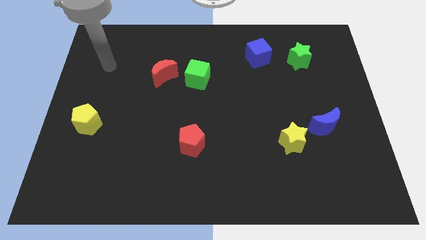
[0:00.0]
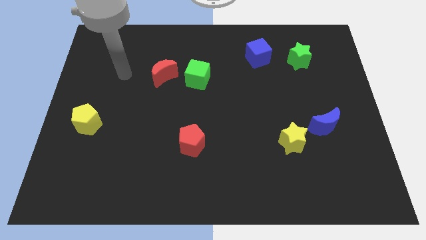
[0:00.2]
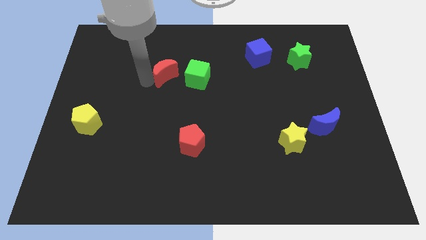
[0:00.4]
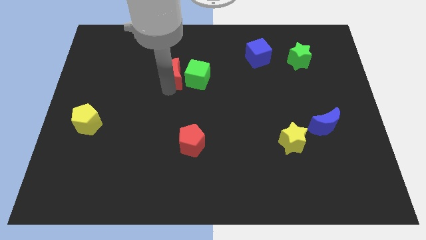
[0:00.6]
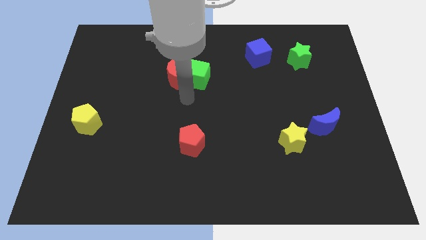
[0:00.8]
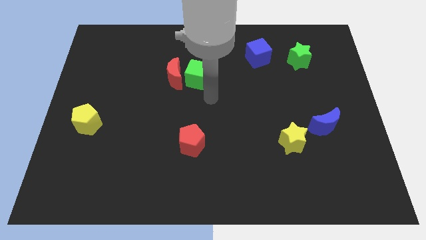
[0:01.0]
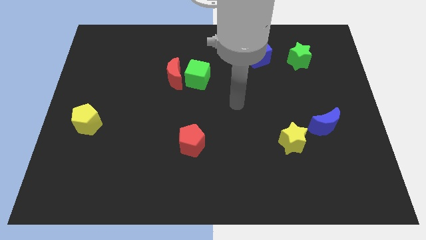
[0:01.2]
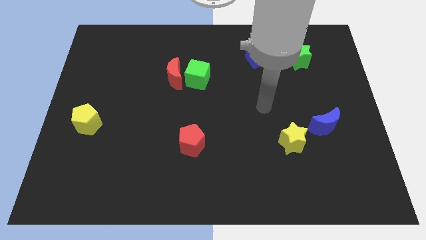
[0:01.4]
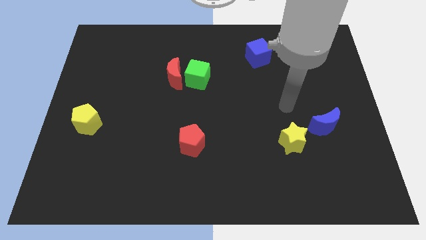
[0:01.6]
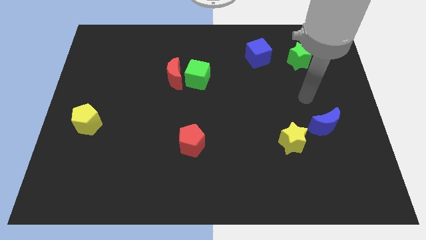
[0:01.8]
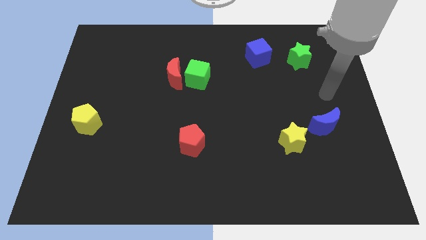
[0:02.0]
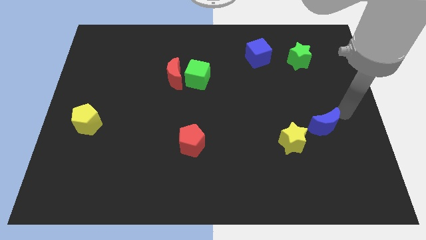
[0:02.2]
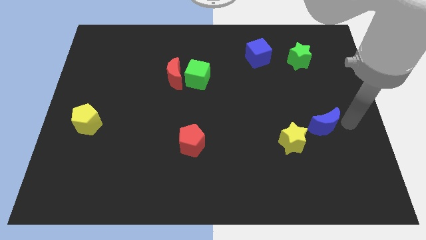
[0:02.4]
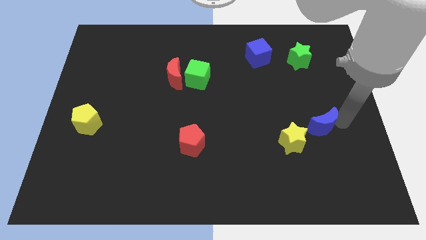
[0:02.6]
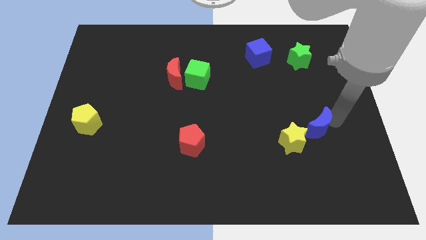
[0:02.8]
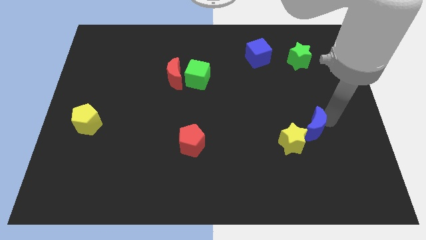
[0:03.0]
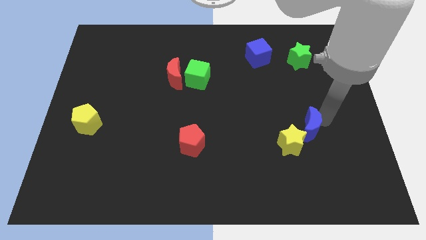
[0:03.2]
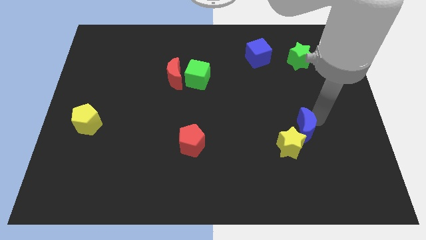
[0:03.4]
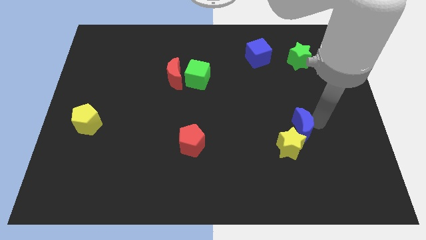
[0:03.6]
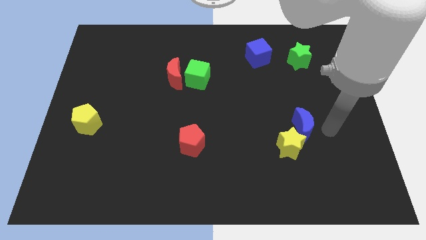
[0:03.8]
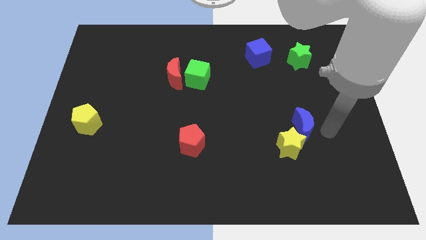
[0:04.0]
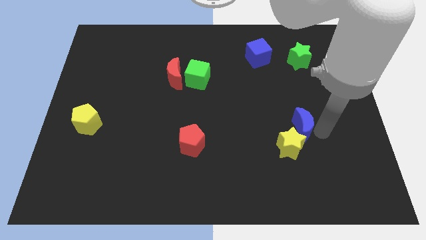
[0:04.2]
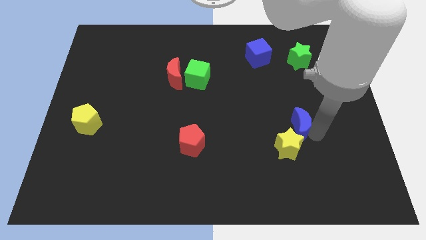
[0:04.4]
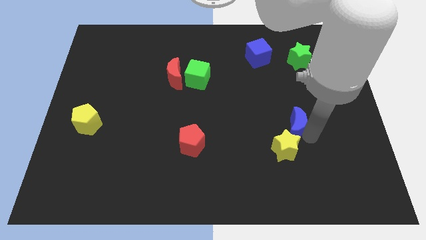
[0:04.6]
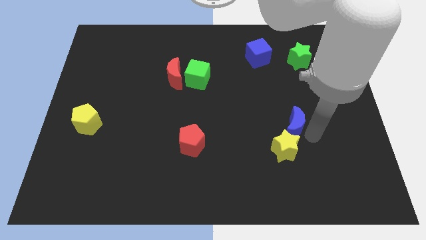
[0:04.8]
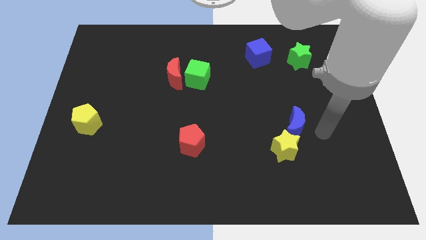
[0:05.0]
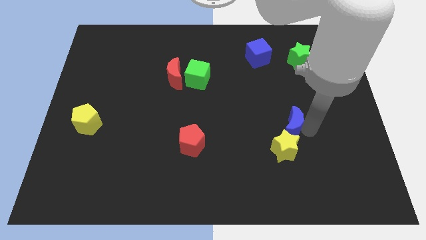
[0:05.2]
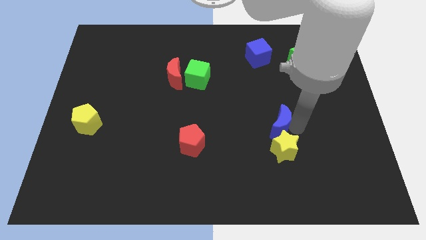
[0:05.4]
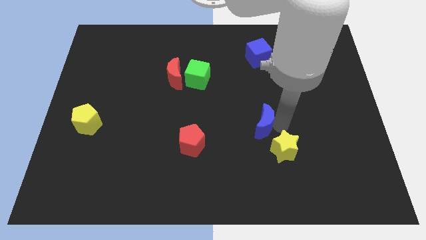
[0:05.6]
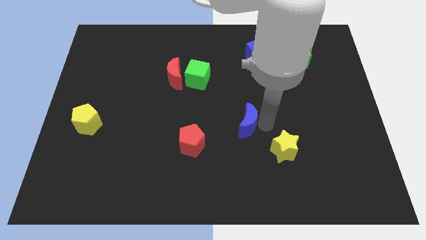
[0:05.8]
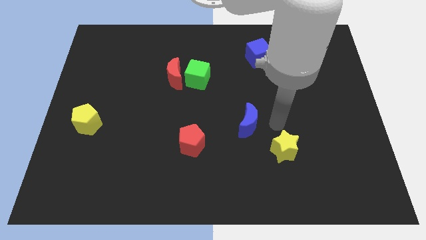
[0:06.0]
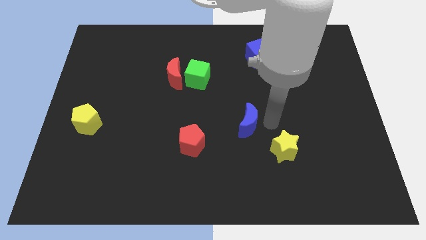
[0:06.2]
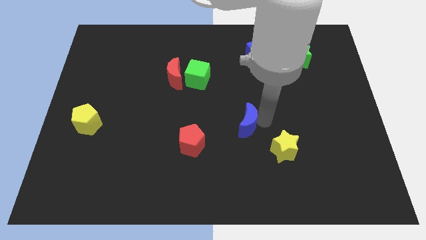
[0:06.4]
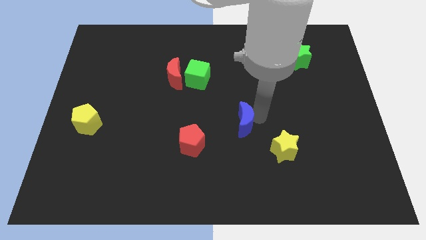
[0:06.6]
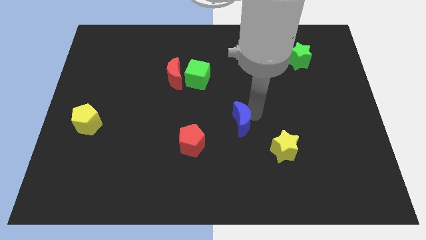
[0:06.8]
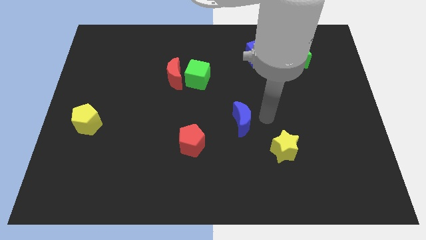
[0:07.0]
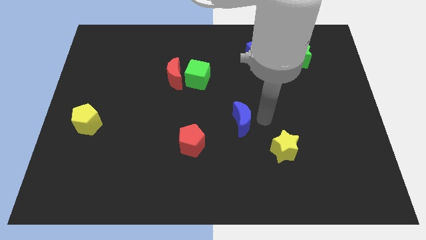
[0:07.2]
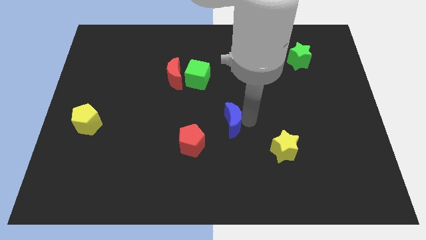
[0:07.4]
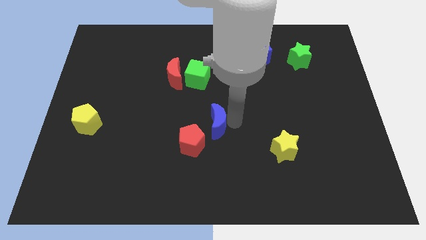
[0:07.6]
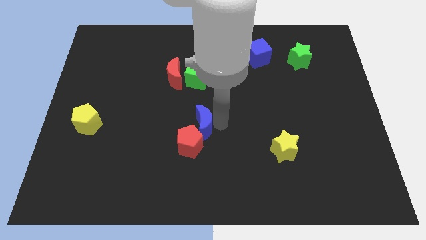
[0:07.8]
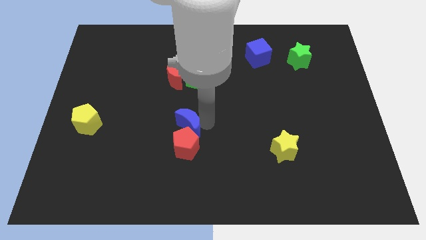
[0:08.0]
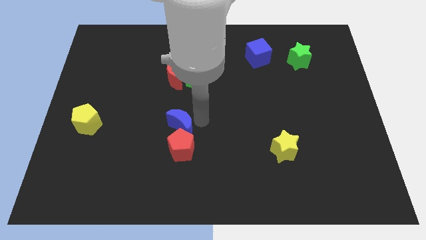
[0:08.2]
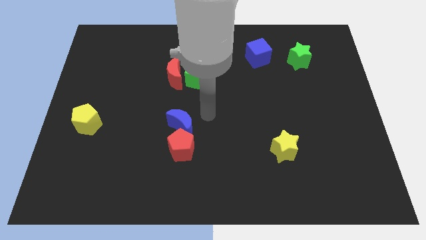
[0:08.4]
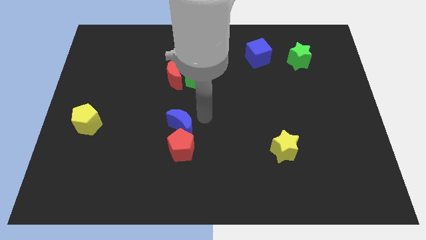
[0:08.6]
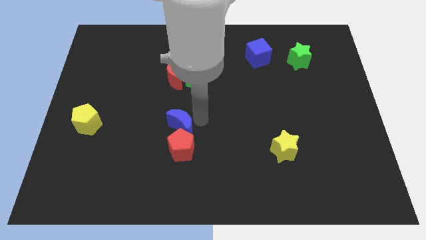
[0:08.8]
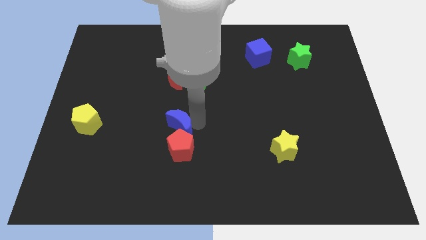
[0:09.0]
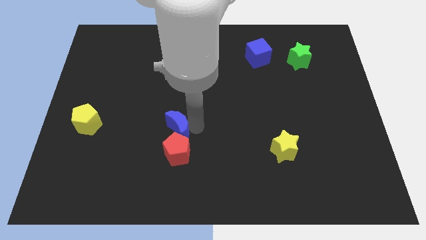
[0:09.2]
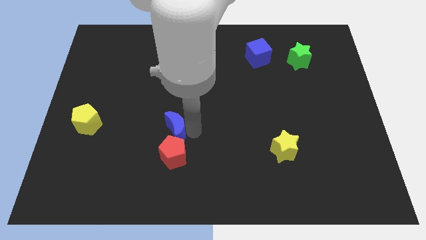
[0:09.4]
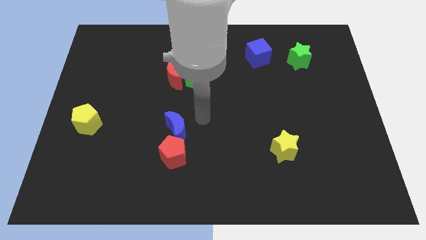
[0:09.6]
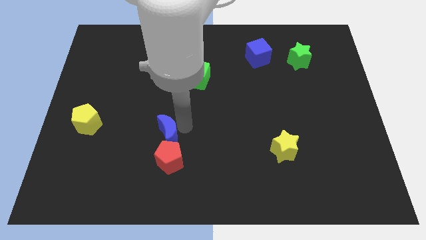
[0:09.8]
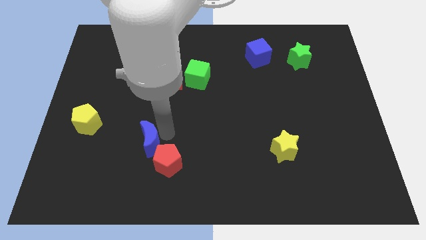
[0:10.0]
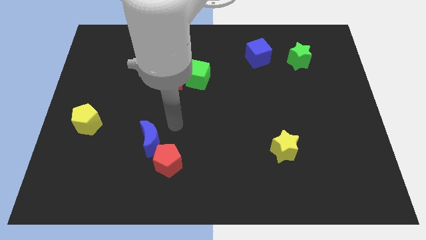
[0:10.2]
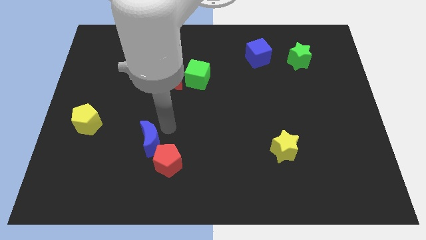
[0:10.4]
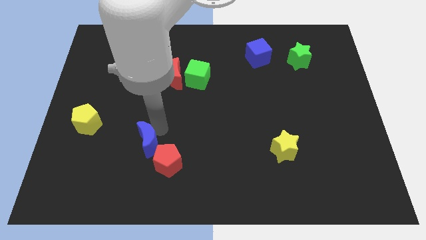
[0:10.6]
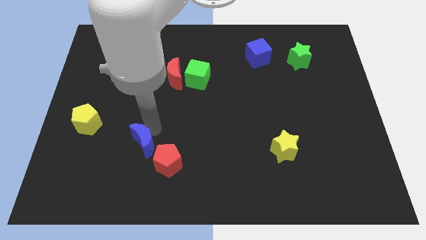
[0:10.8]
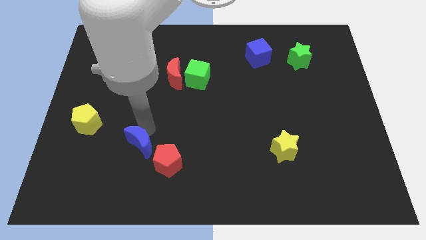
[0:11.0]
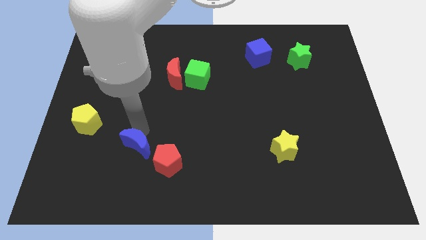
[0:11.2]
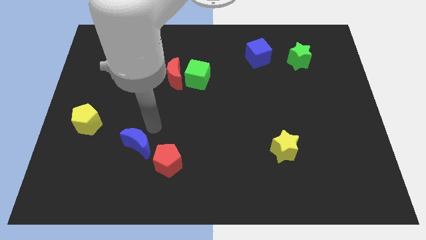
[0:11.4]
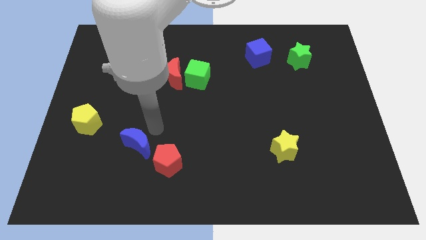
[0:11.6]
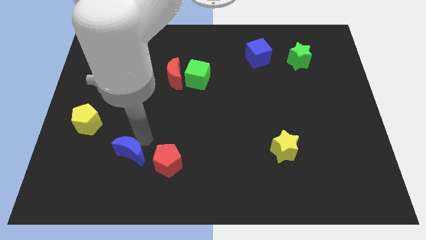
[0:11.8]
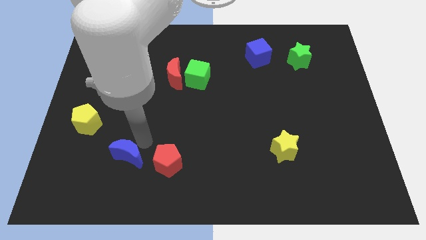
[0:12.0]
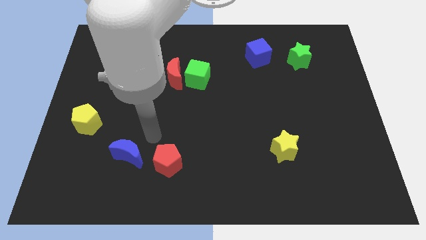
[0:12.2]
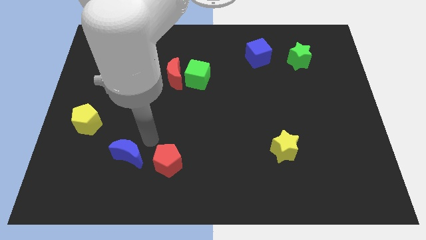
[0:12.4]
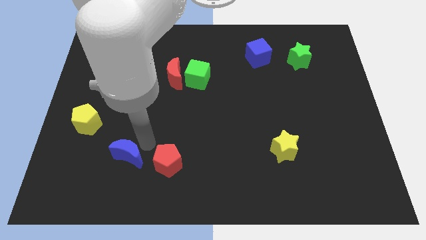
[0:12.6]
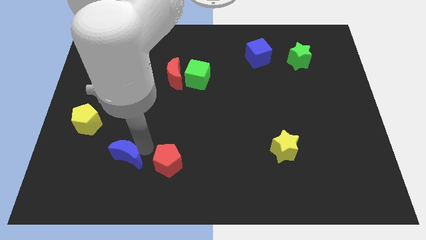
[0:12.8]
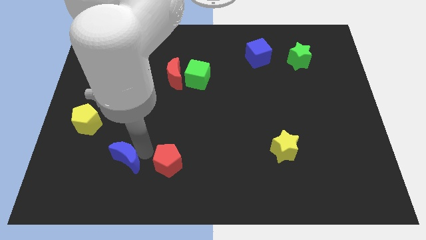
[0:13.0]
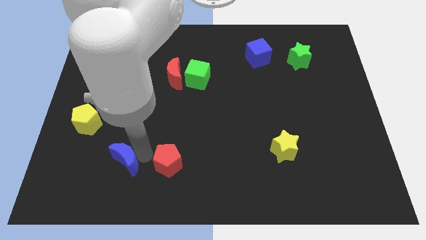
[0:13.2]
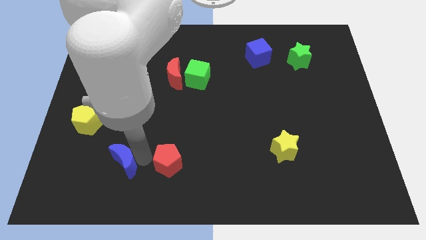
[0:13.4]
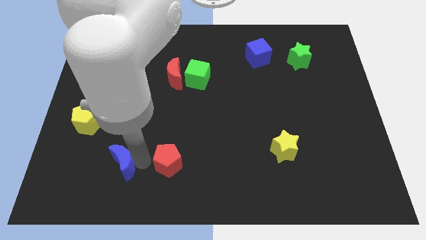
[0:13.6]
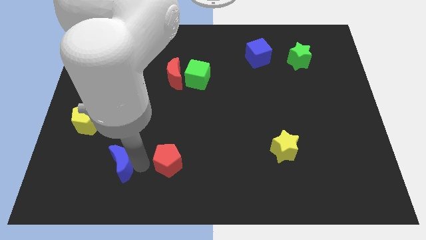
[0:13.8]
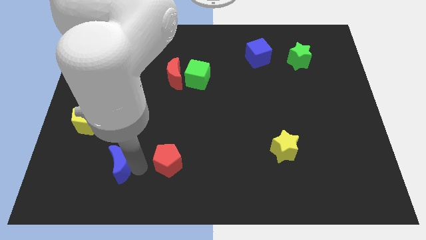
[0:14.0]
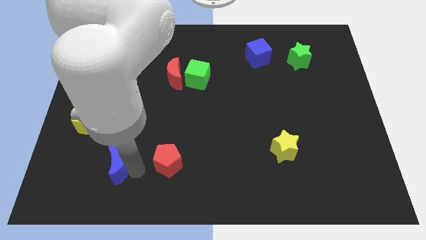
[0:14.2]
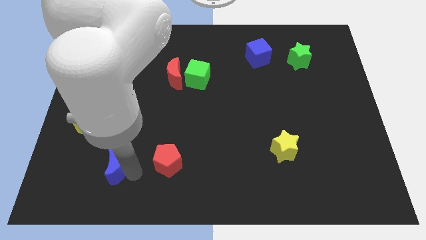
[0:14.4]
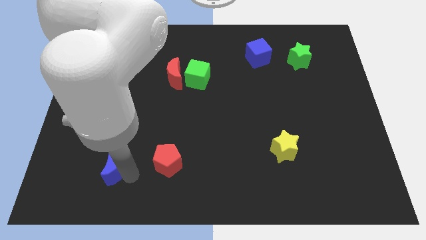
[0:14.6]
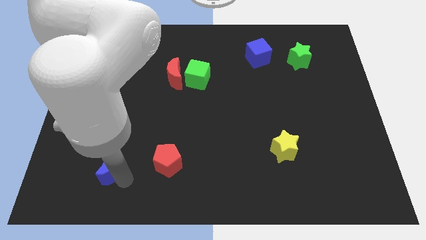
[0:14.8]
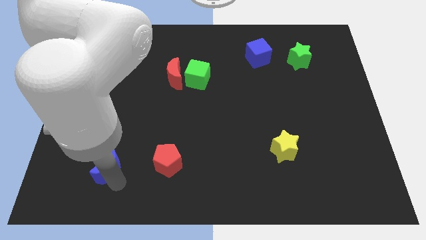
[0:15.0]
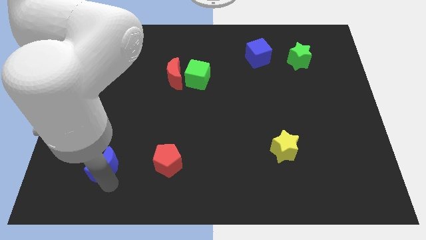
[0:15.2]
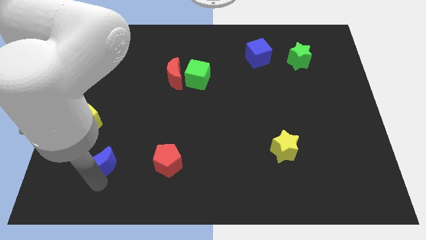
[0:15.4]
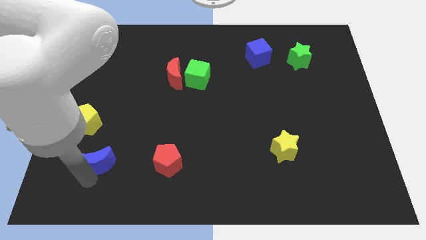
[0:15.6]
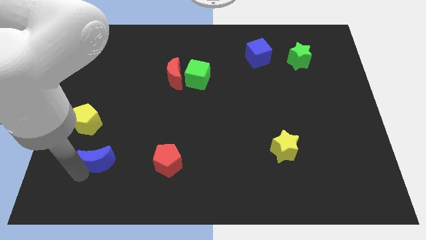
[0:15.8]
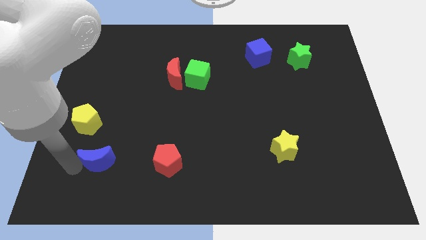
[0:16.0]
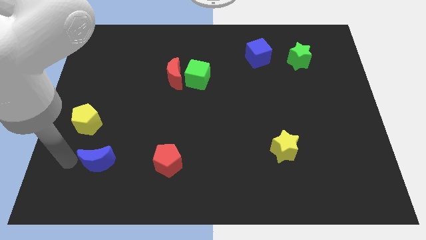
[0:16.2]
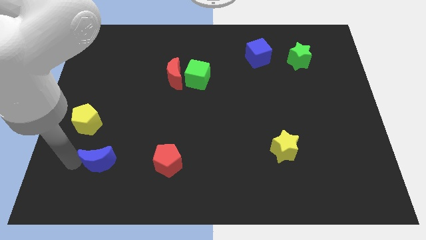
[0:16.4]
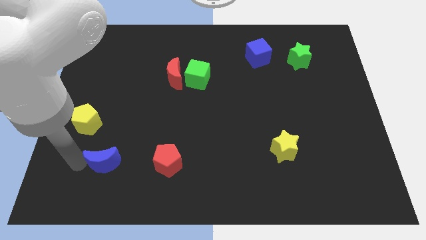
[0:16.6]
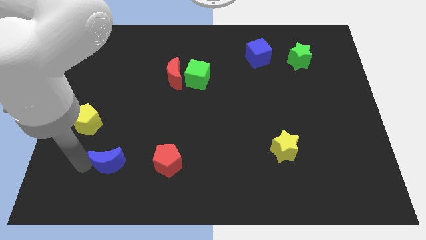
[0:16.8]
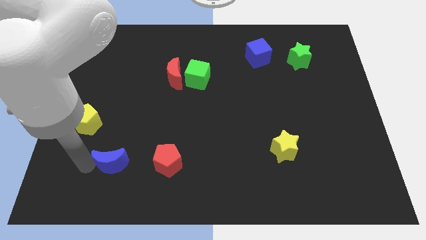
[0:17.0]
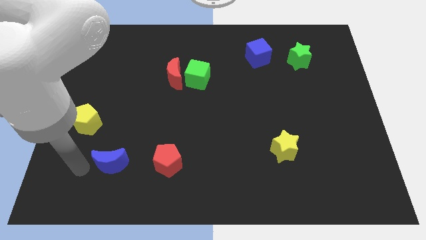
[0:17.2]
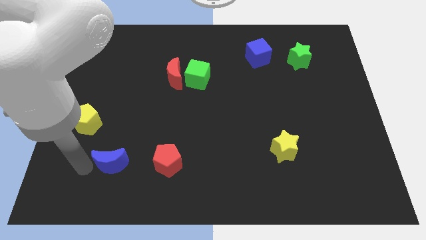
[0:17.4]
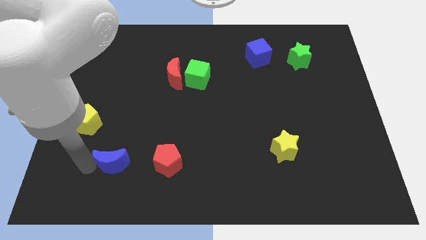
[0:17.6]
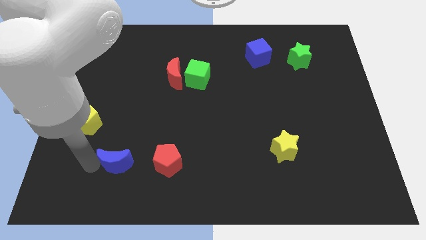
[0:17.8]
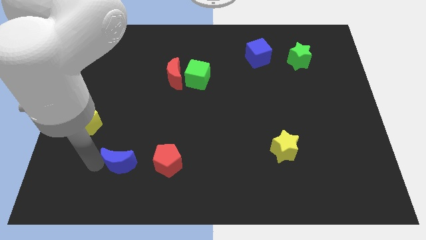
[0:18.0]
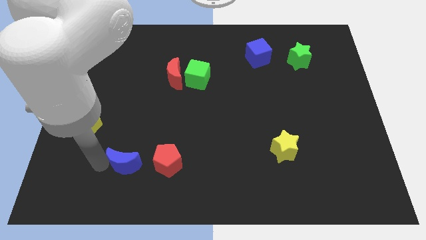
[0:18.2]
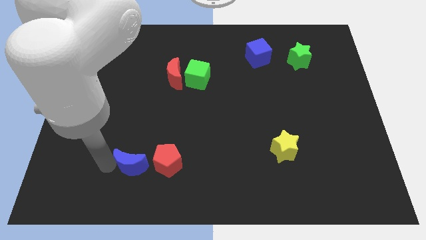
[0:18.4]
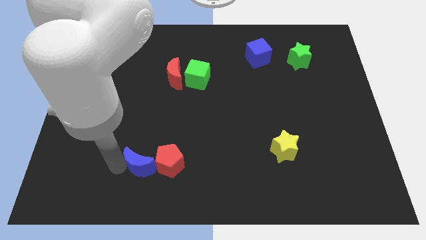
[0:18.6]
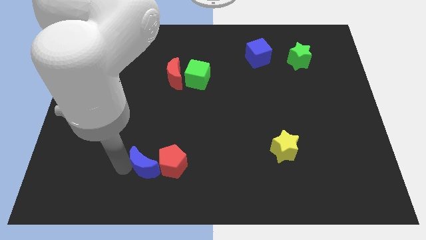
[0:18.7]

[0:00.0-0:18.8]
put the blue moon left of the red pentagon
